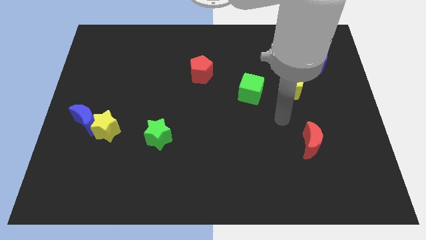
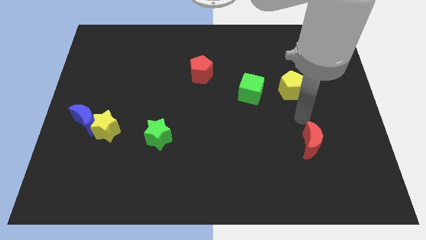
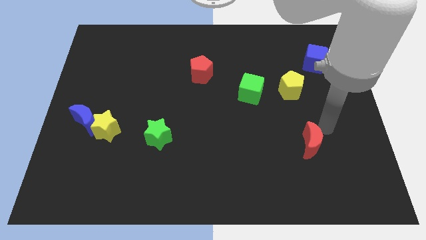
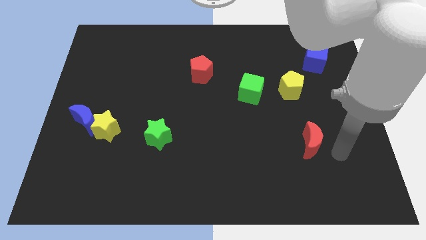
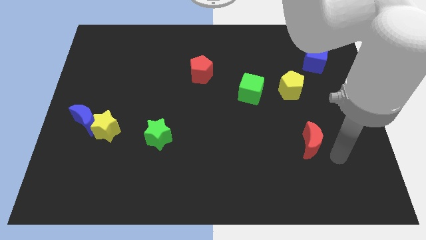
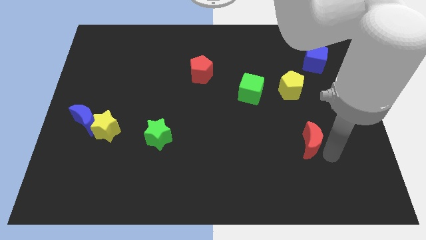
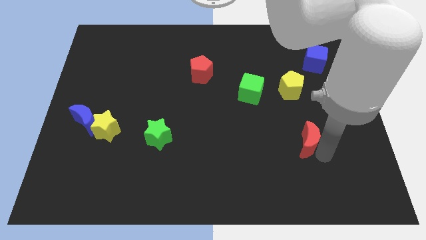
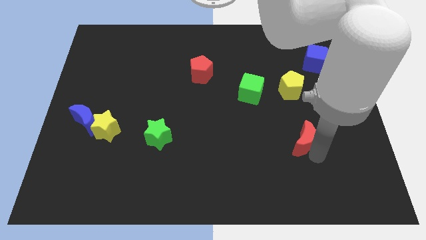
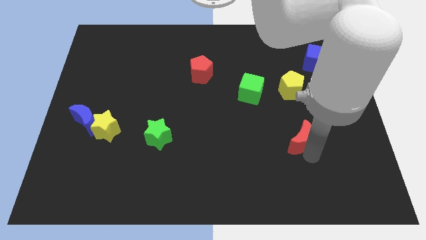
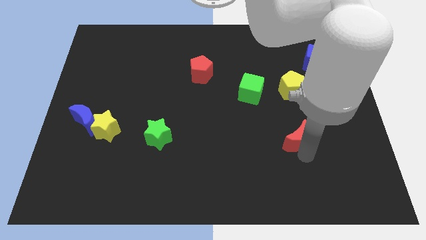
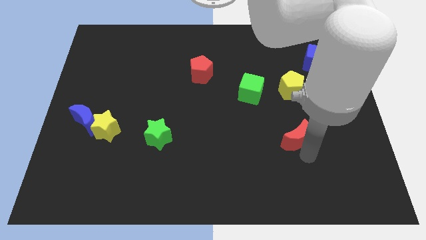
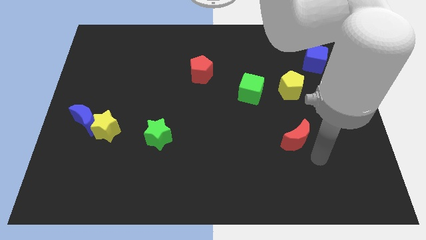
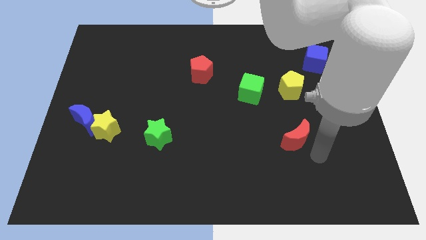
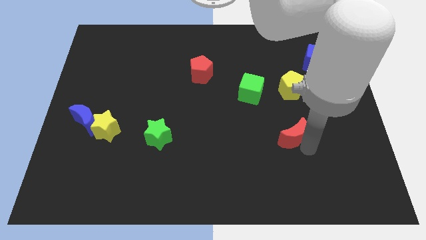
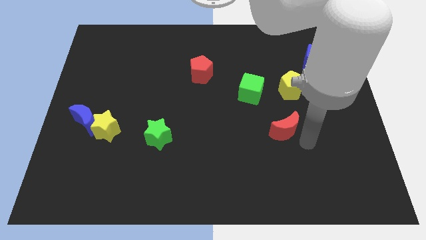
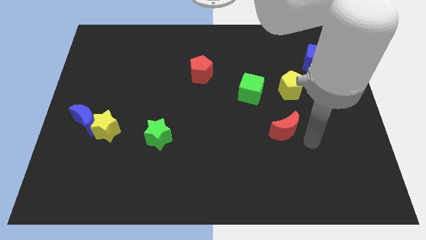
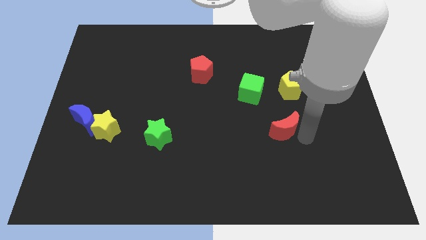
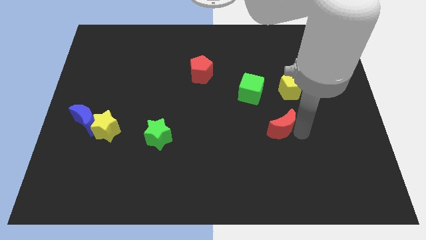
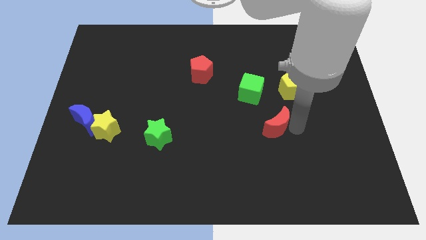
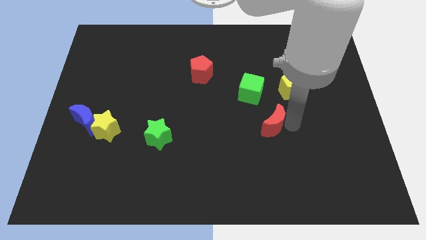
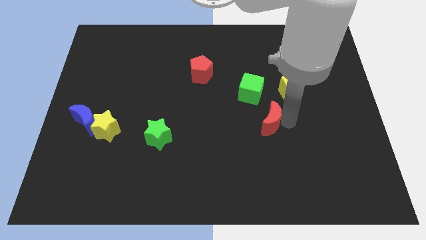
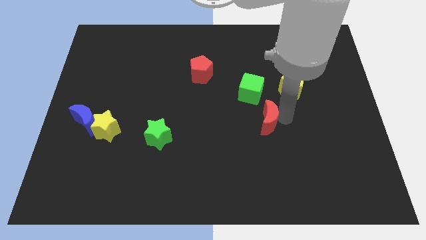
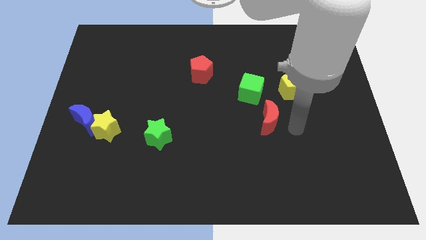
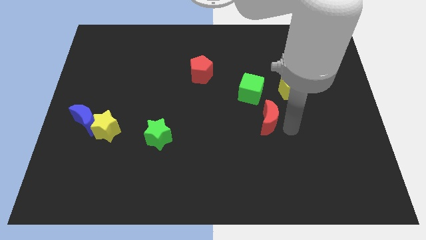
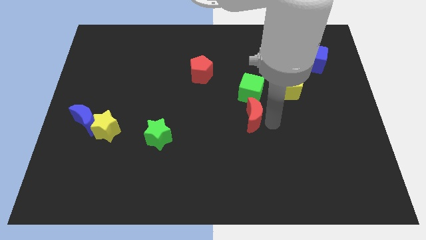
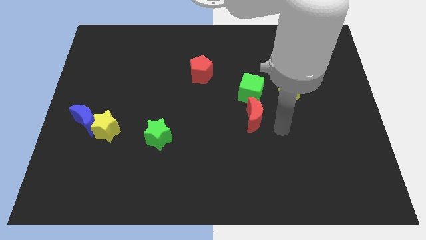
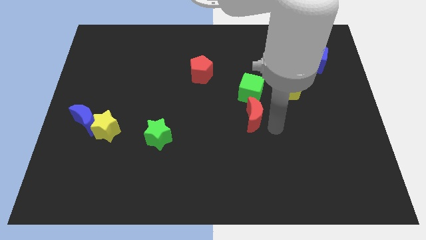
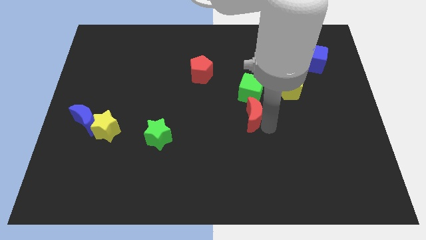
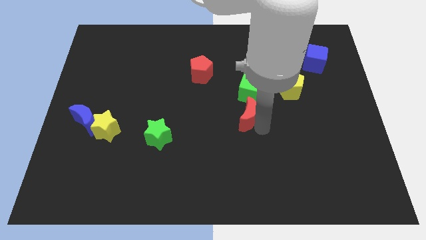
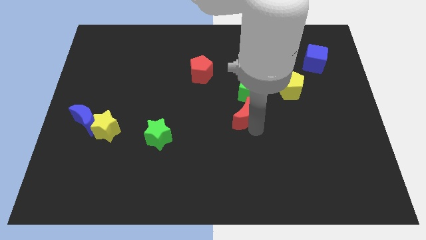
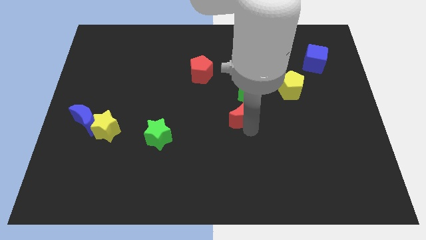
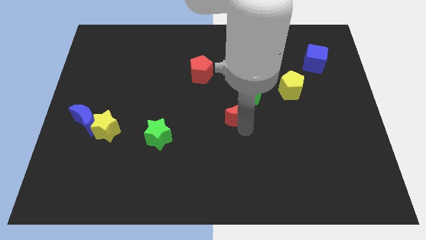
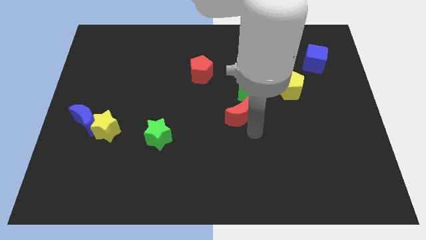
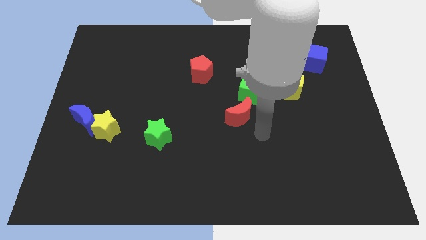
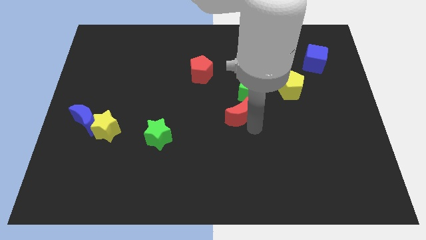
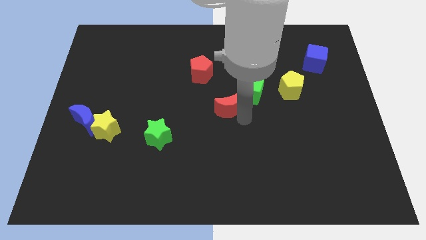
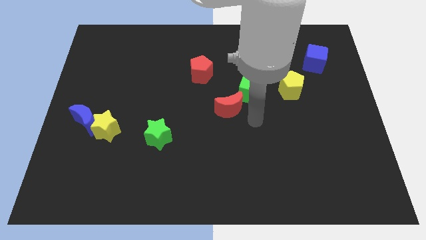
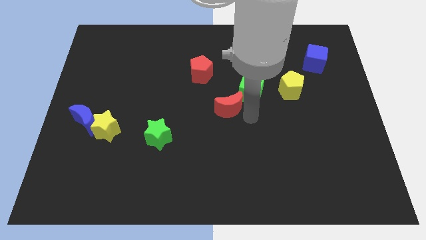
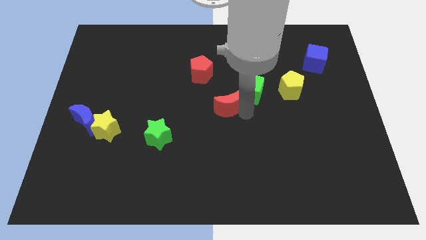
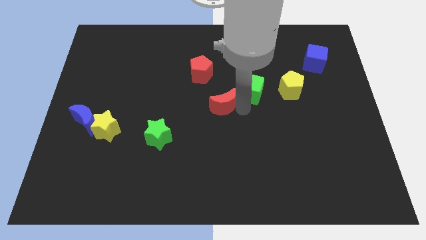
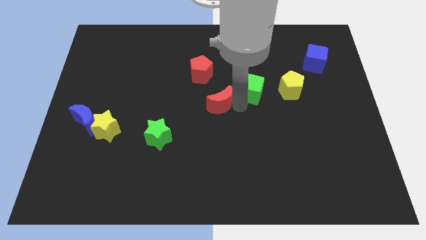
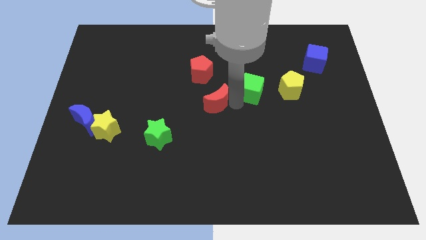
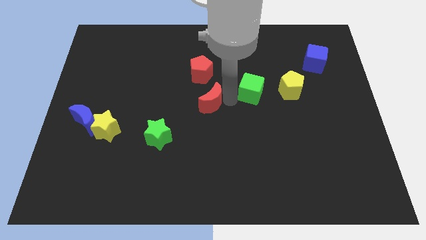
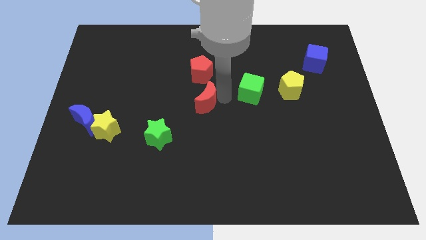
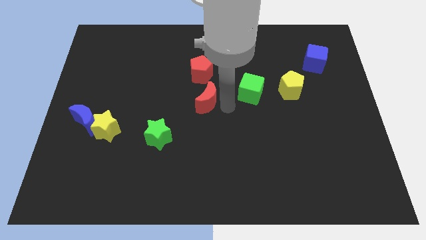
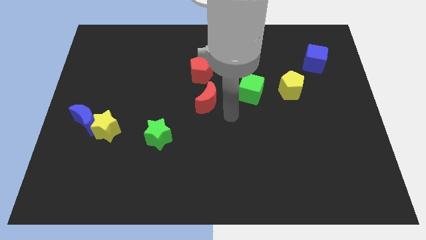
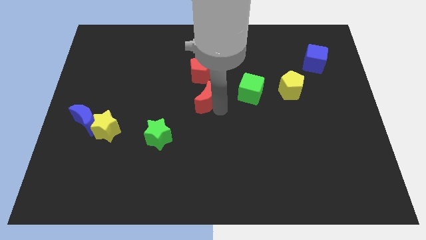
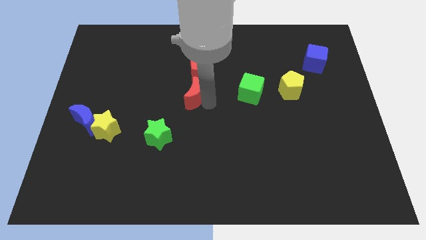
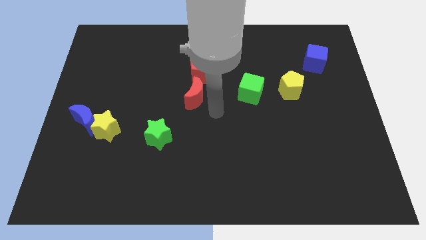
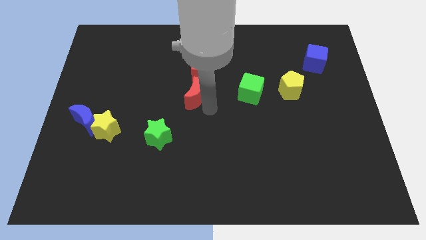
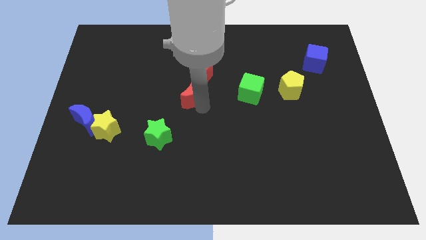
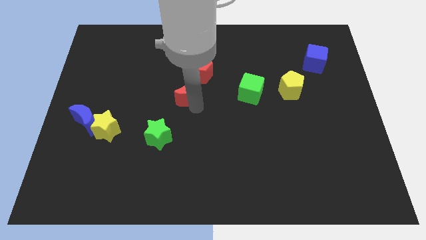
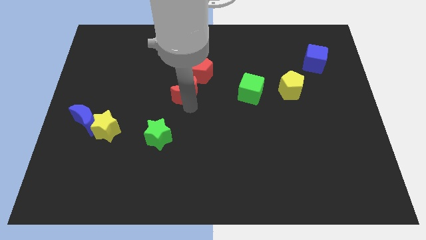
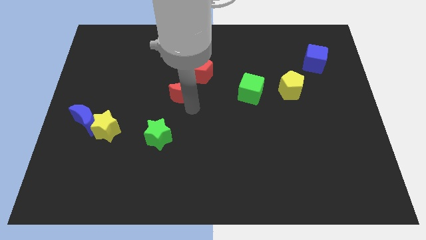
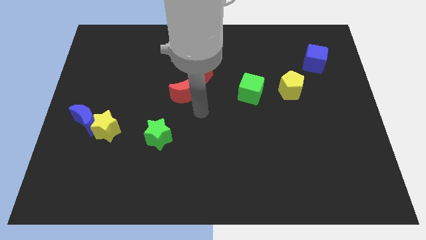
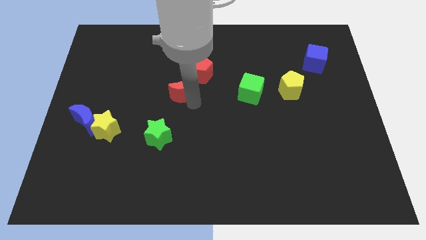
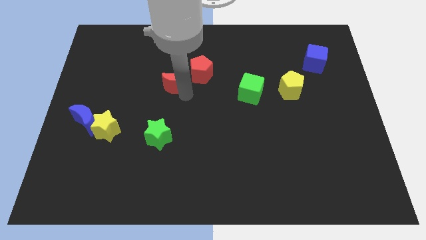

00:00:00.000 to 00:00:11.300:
move the red moon left of the red pentagon
